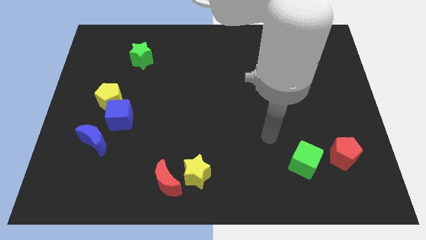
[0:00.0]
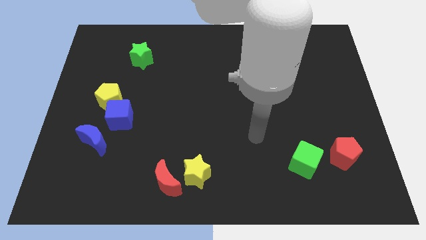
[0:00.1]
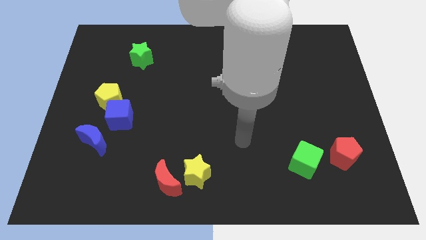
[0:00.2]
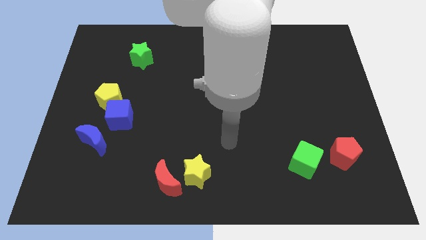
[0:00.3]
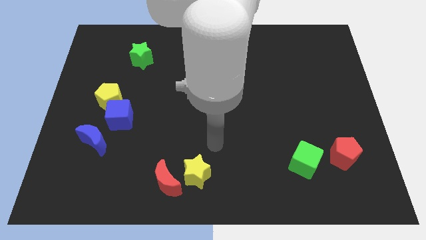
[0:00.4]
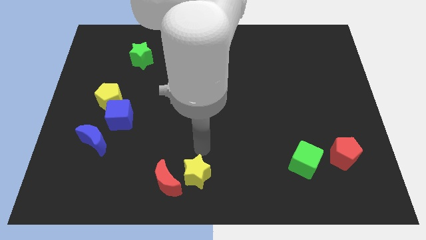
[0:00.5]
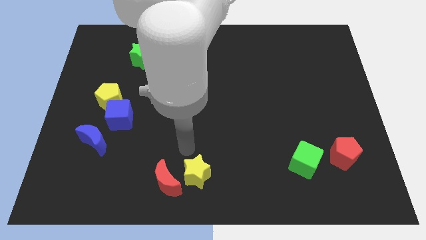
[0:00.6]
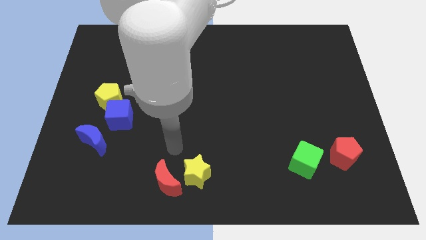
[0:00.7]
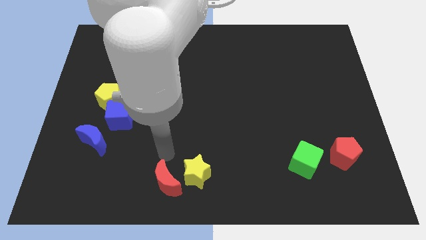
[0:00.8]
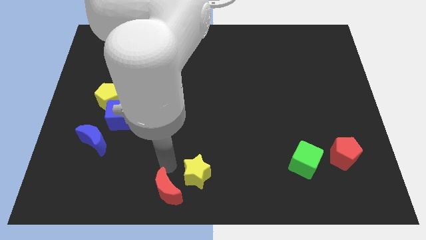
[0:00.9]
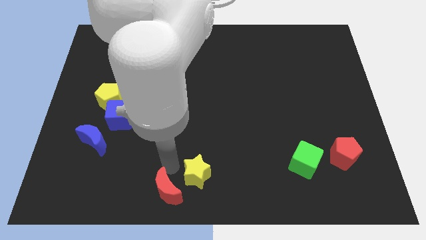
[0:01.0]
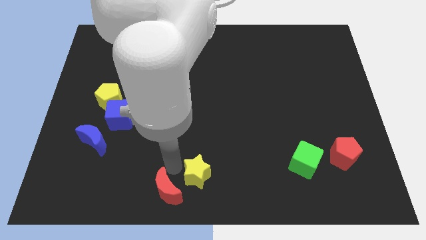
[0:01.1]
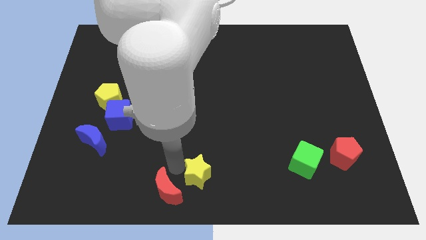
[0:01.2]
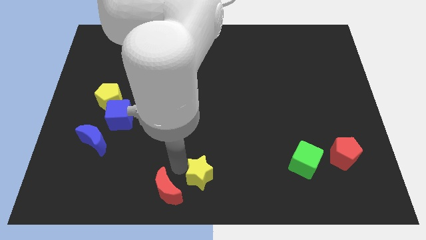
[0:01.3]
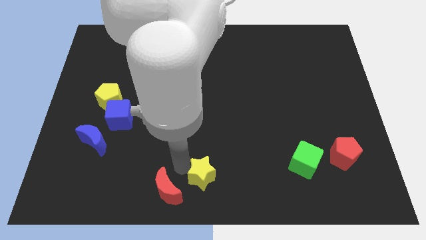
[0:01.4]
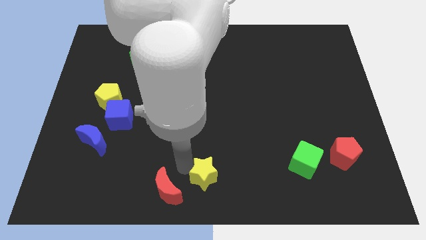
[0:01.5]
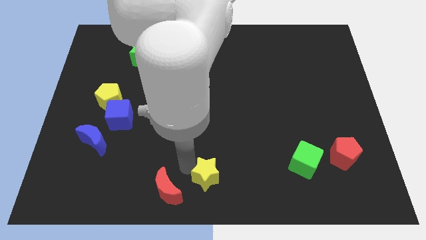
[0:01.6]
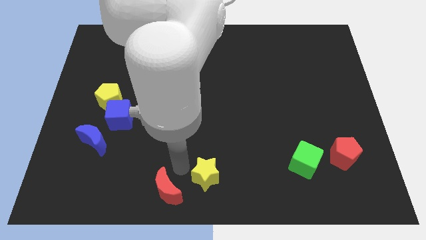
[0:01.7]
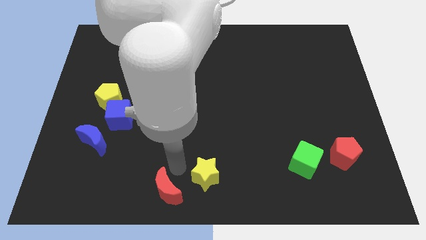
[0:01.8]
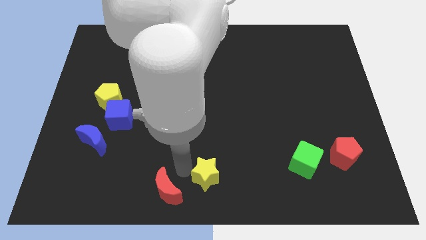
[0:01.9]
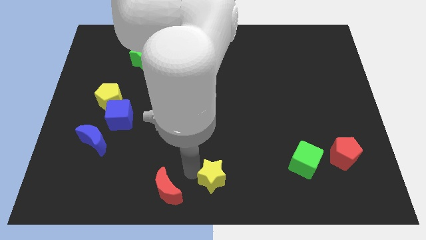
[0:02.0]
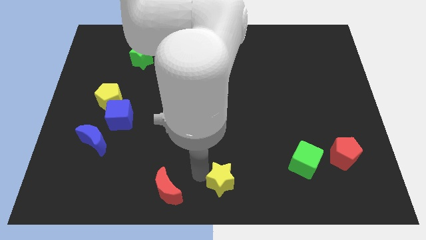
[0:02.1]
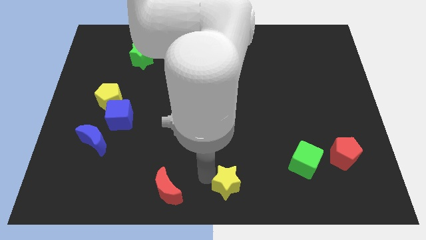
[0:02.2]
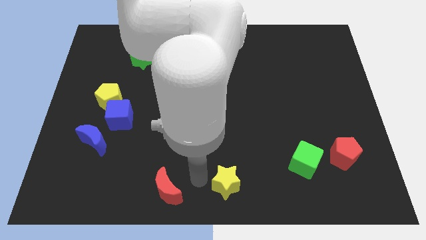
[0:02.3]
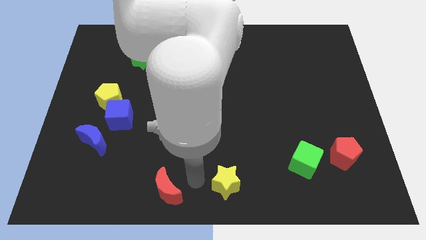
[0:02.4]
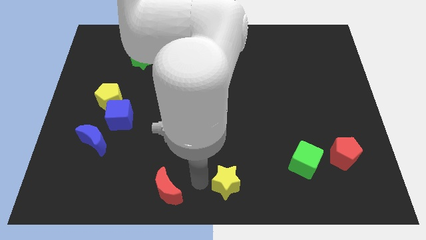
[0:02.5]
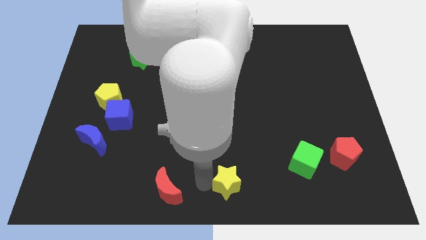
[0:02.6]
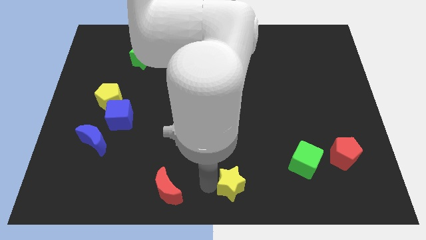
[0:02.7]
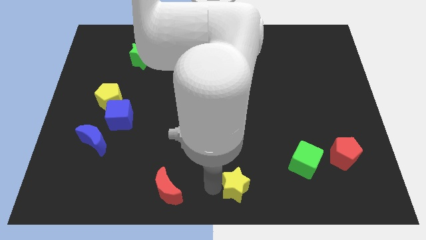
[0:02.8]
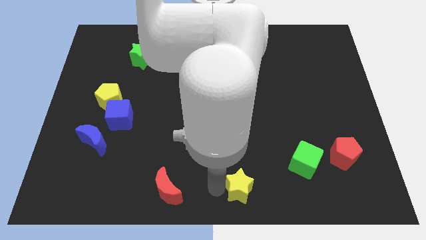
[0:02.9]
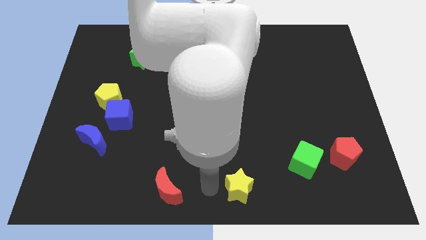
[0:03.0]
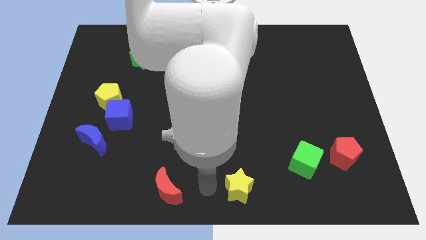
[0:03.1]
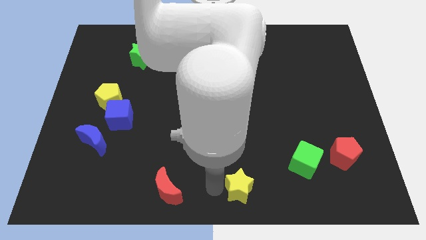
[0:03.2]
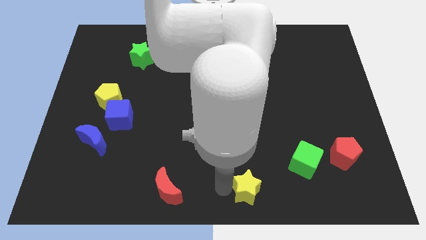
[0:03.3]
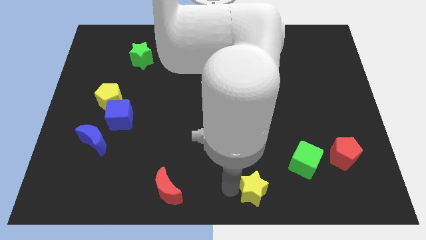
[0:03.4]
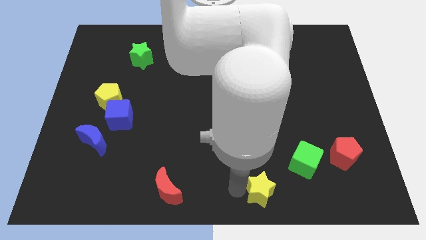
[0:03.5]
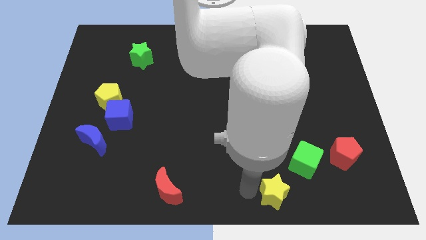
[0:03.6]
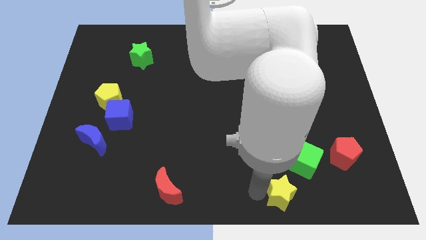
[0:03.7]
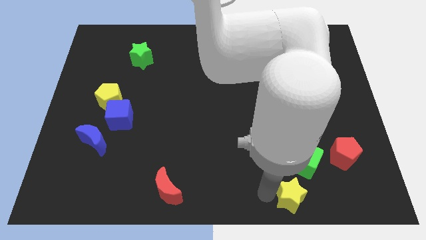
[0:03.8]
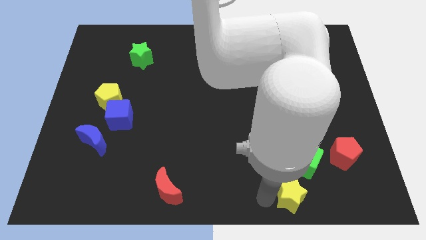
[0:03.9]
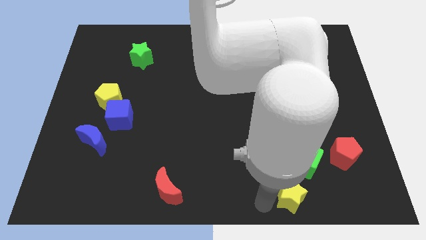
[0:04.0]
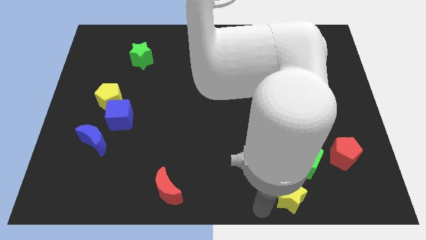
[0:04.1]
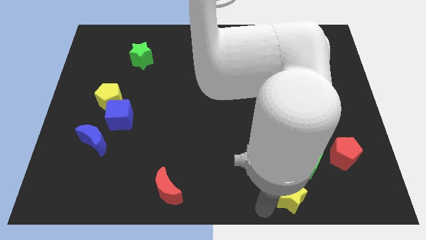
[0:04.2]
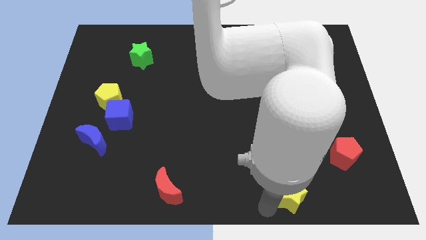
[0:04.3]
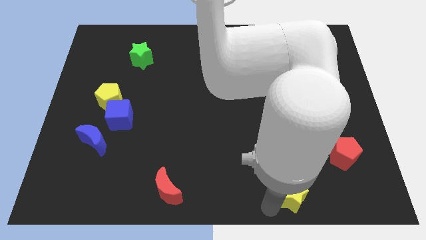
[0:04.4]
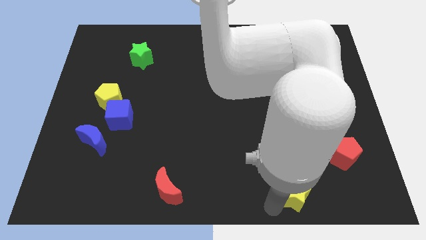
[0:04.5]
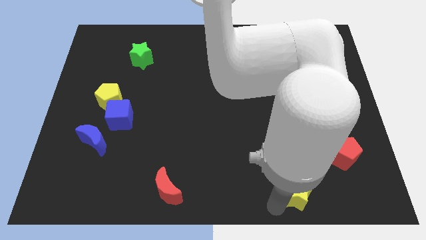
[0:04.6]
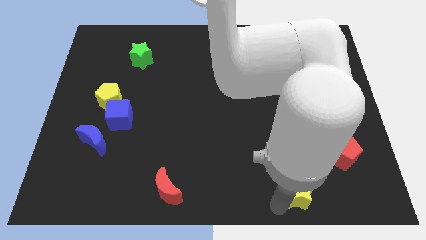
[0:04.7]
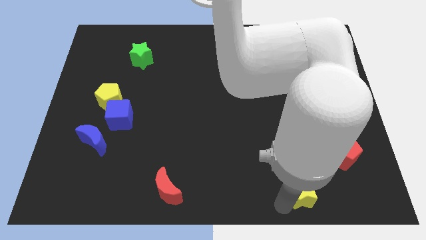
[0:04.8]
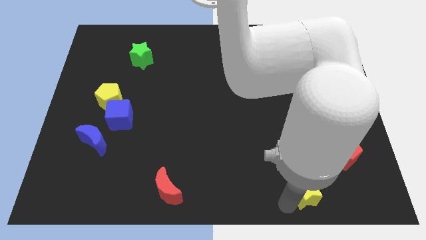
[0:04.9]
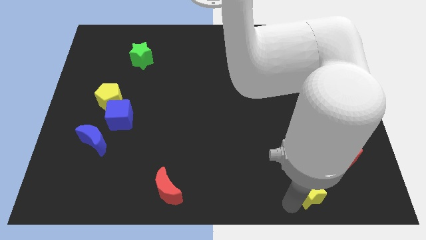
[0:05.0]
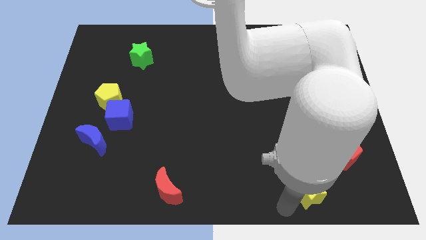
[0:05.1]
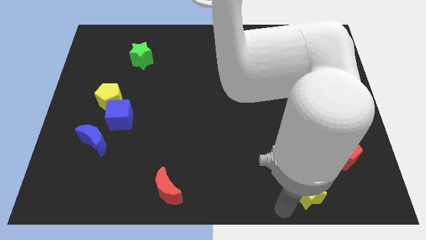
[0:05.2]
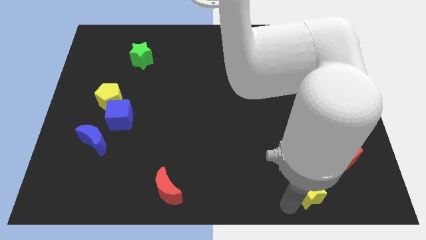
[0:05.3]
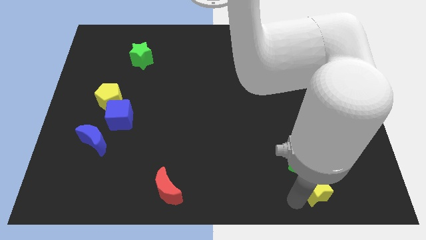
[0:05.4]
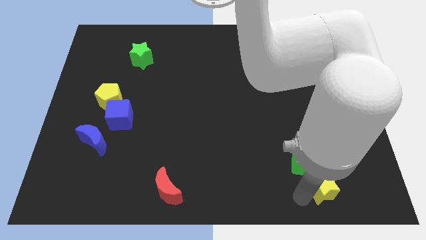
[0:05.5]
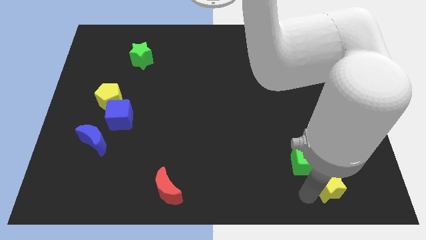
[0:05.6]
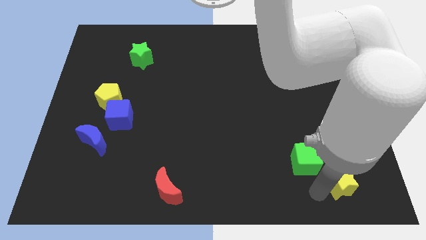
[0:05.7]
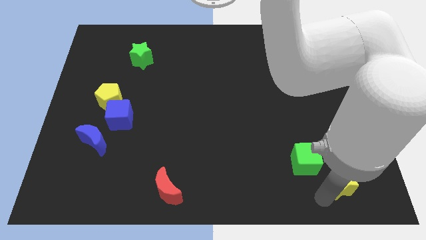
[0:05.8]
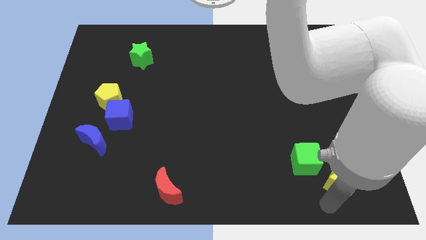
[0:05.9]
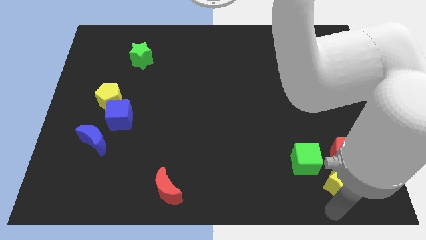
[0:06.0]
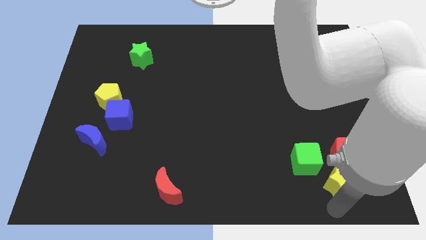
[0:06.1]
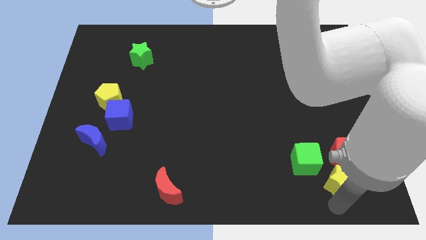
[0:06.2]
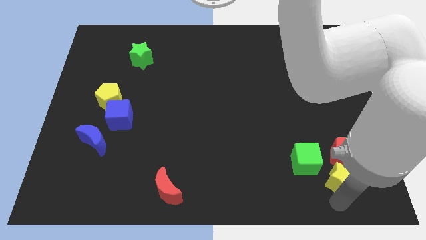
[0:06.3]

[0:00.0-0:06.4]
put the yellow star to the red pentagon

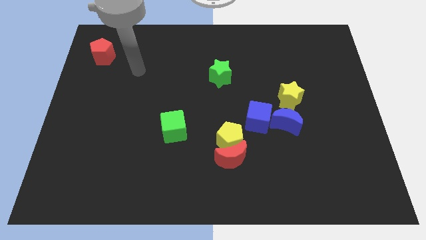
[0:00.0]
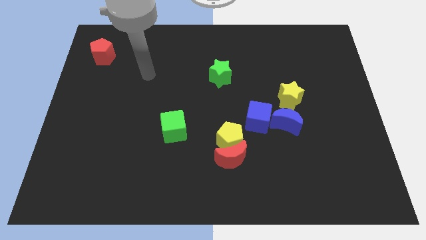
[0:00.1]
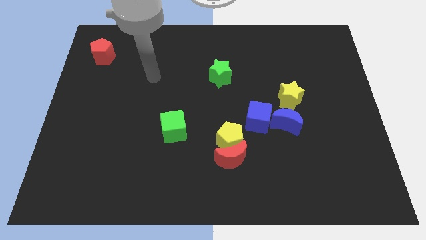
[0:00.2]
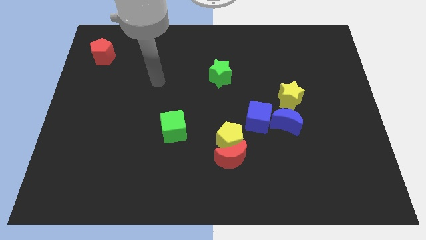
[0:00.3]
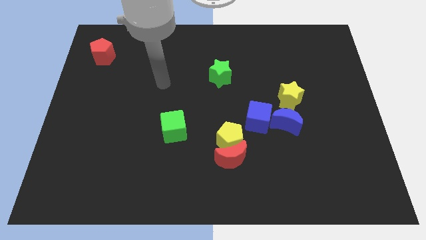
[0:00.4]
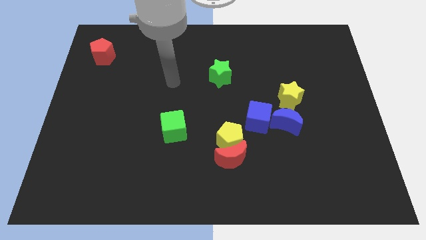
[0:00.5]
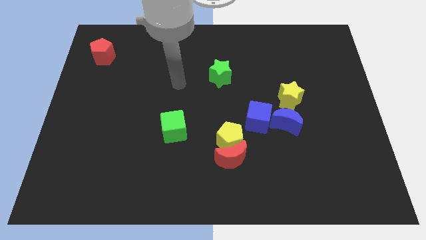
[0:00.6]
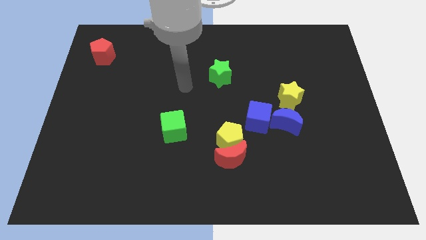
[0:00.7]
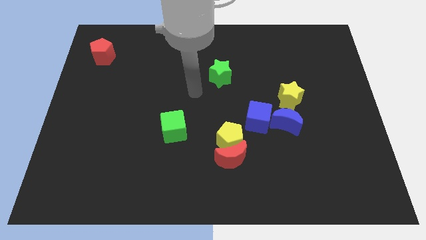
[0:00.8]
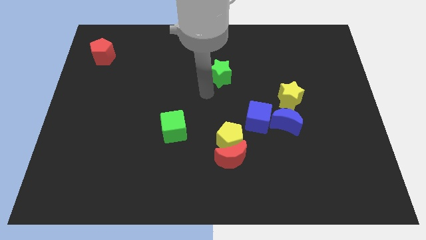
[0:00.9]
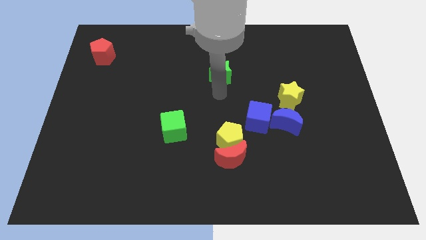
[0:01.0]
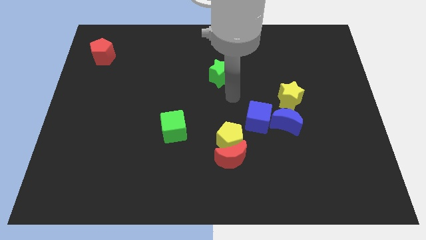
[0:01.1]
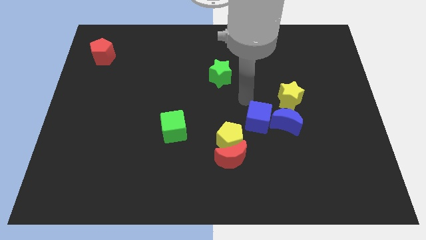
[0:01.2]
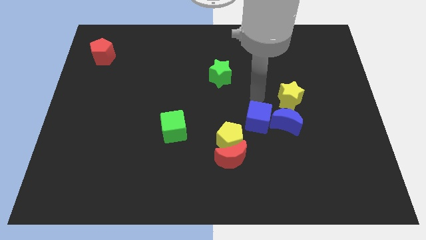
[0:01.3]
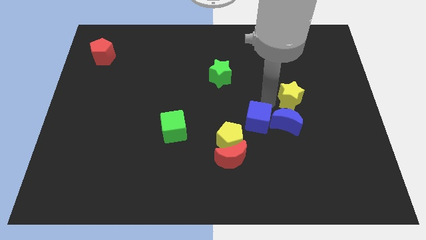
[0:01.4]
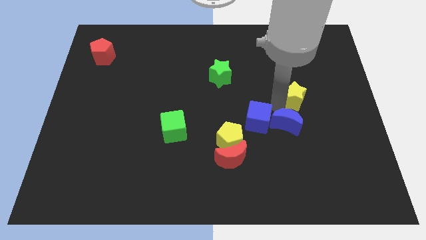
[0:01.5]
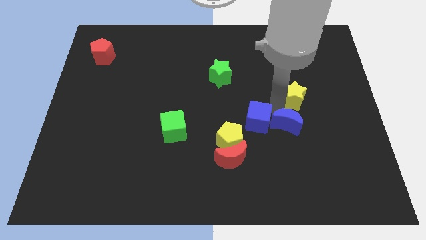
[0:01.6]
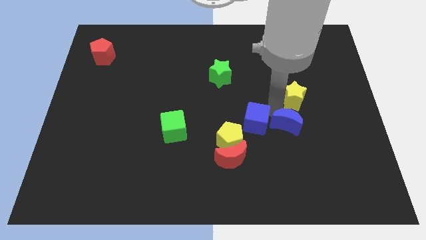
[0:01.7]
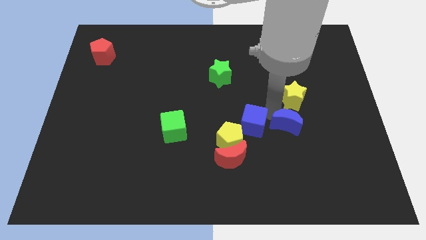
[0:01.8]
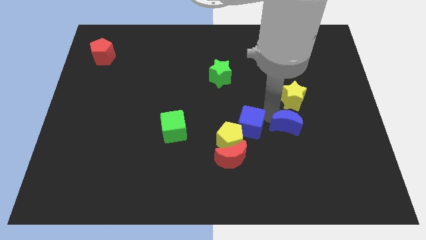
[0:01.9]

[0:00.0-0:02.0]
slide the blue cube to the yellow pentagon
